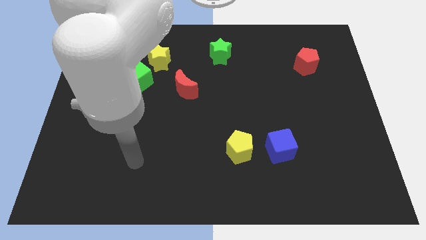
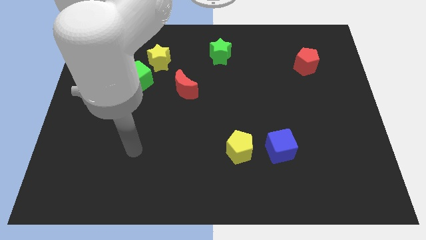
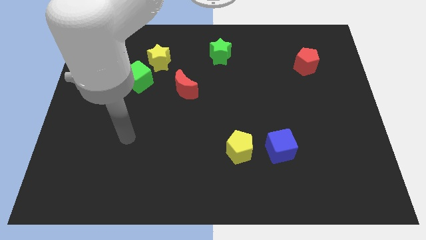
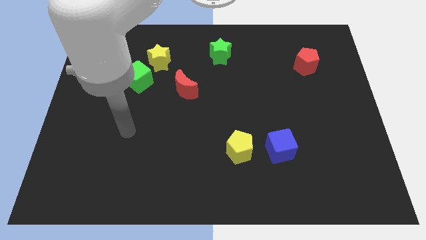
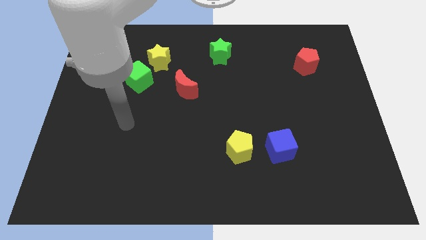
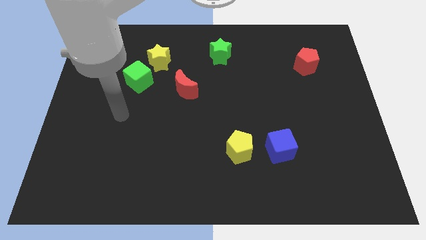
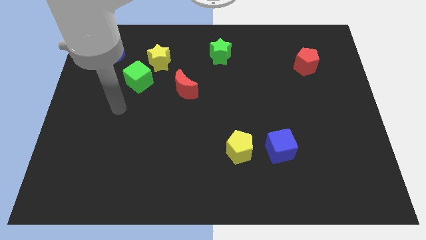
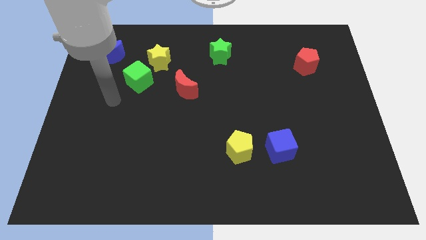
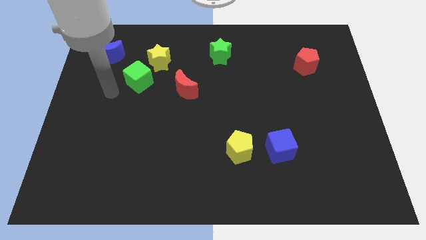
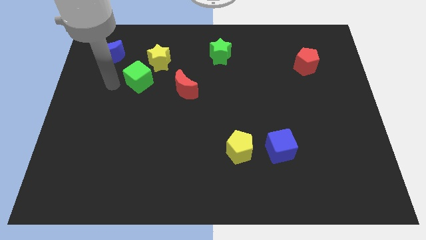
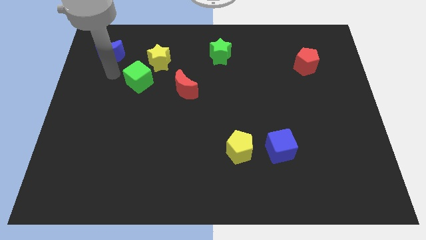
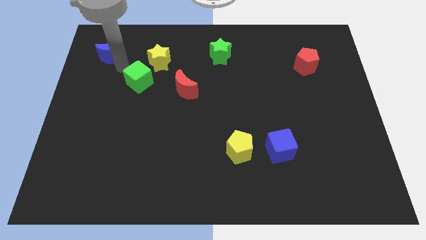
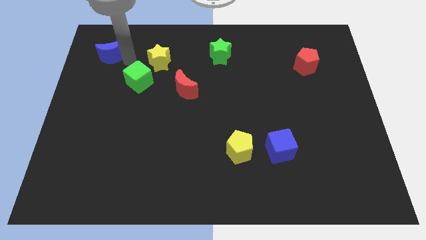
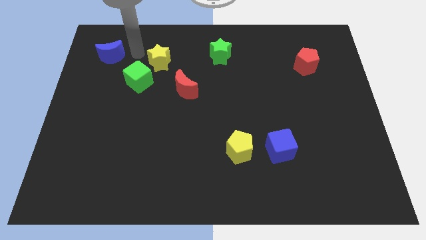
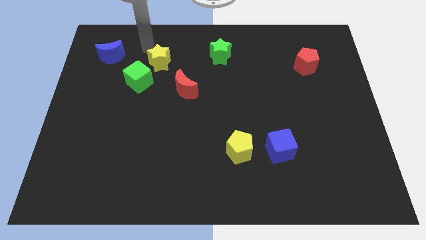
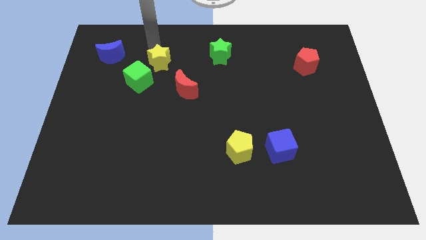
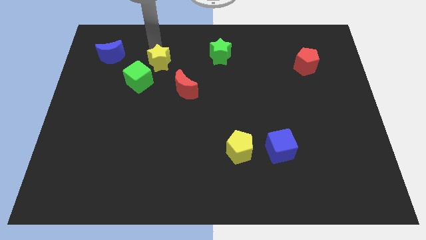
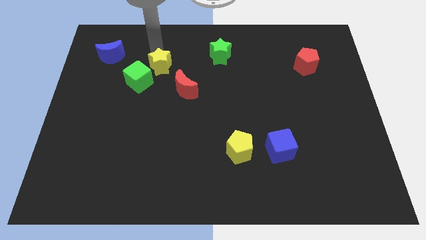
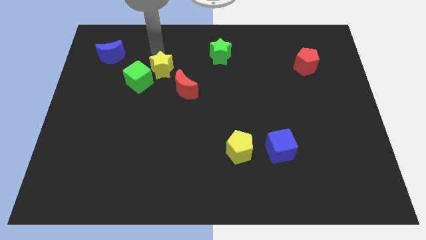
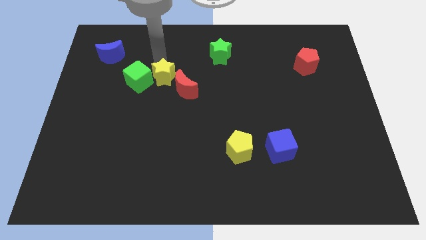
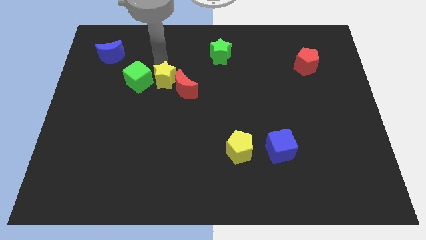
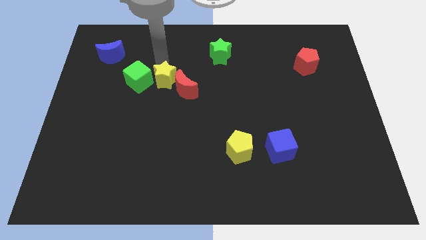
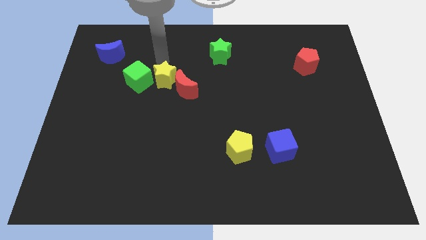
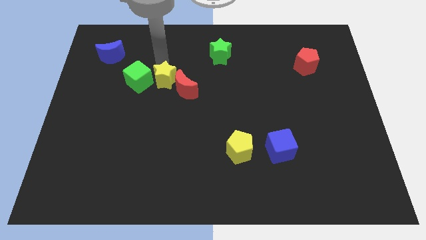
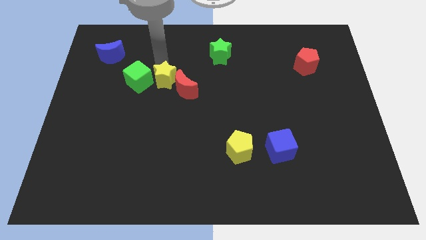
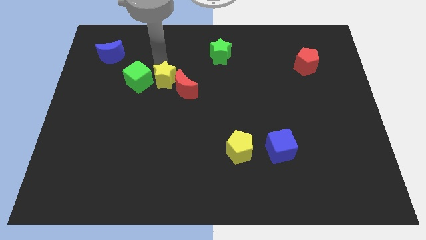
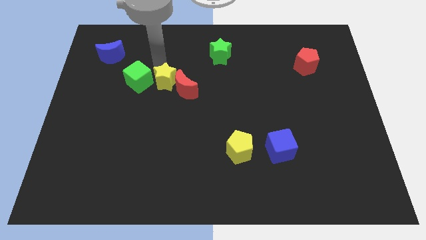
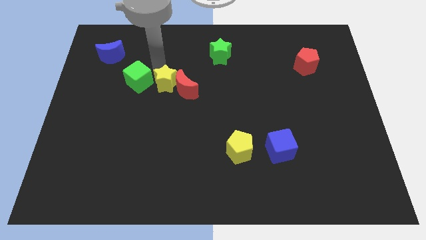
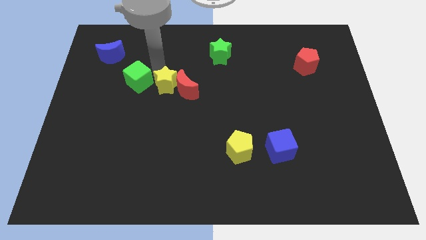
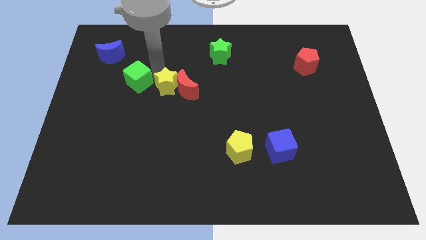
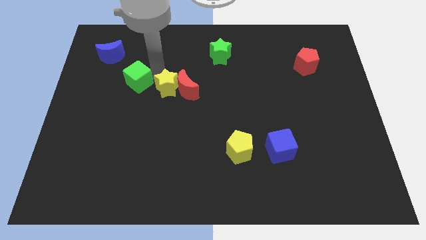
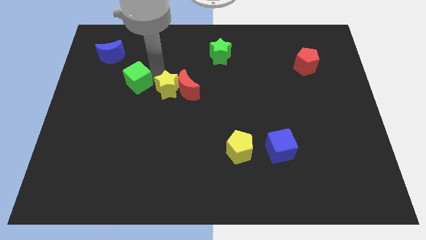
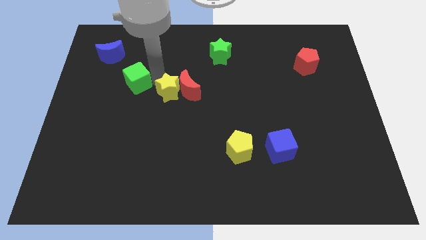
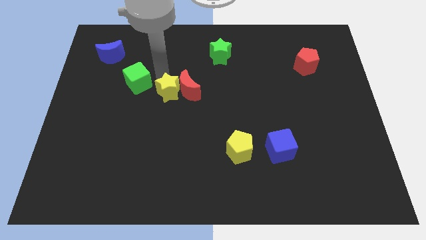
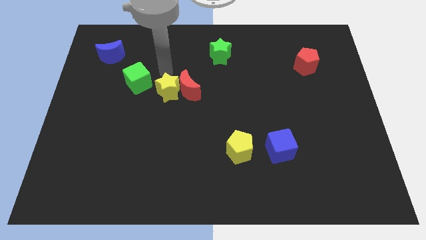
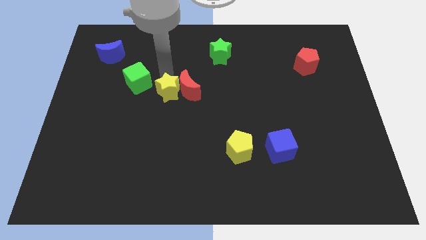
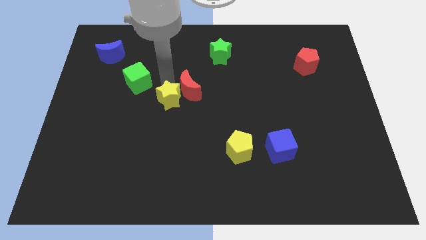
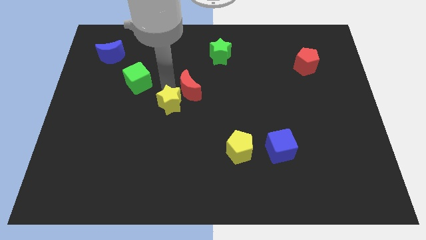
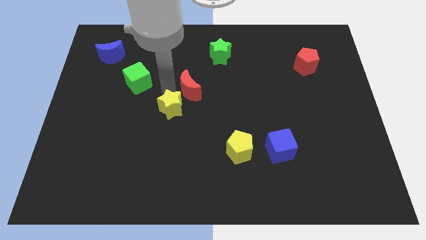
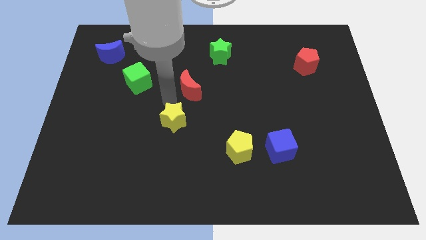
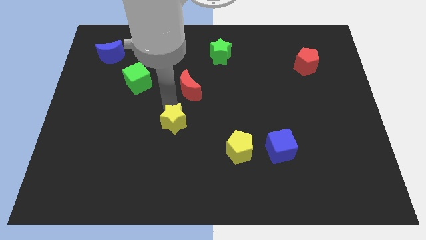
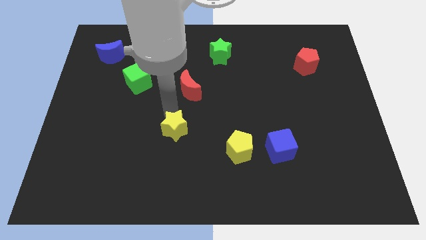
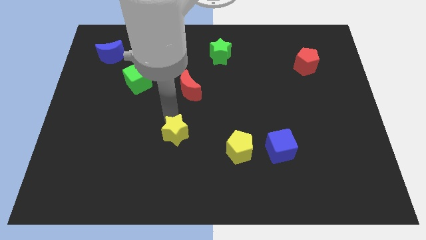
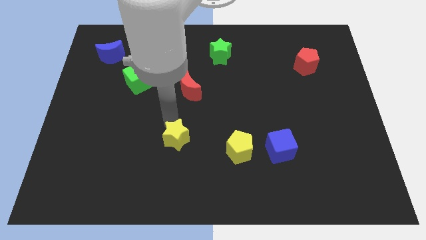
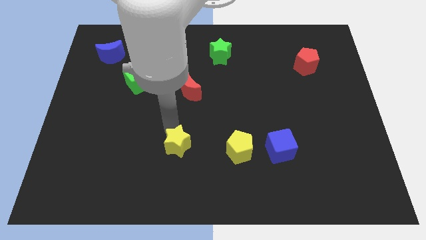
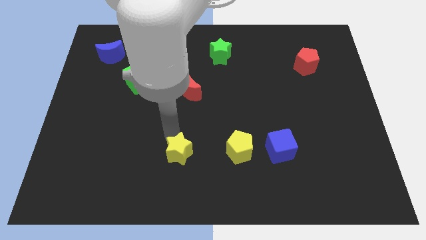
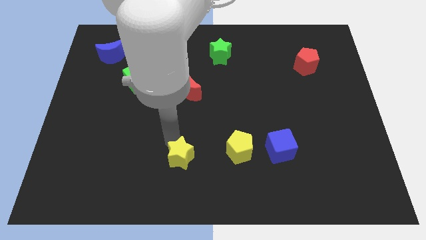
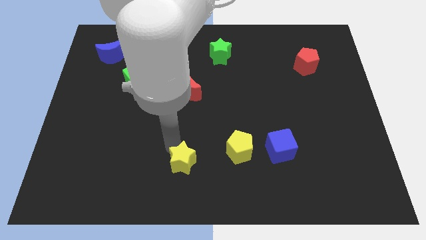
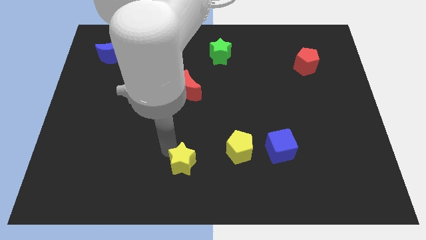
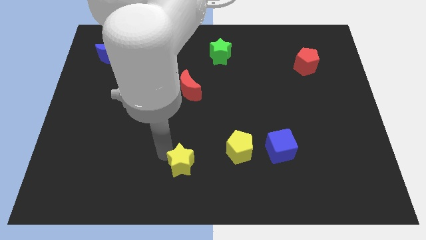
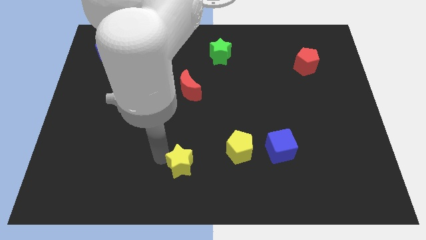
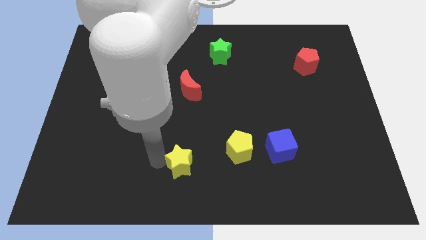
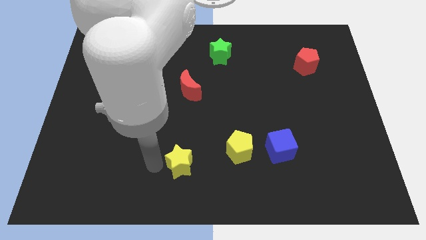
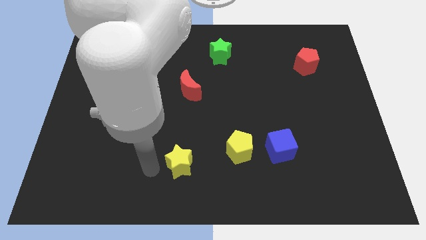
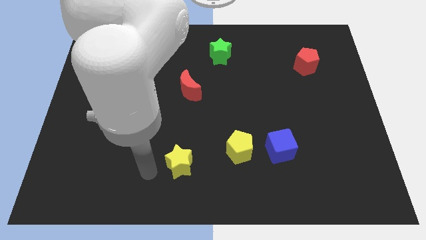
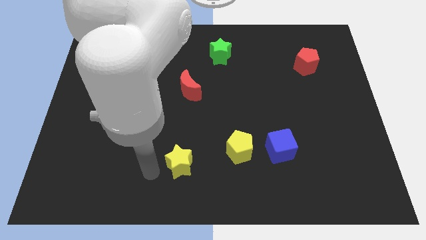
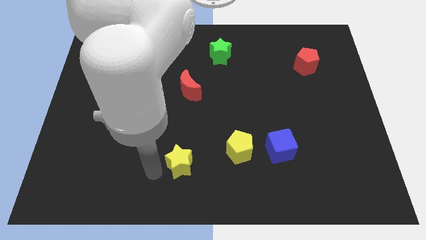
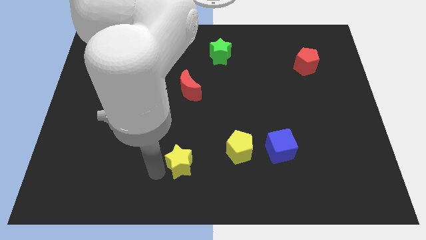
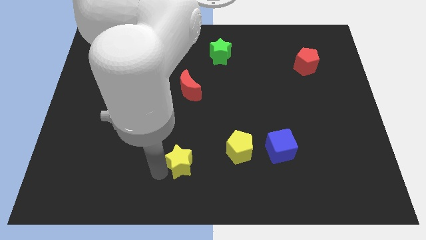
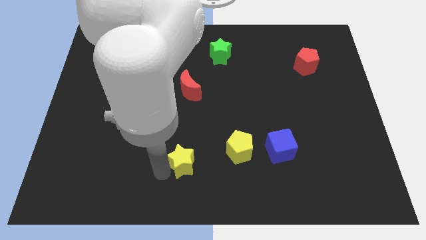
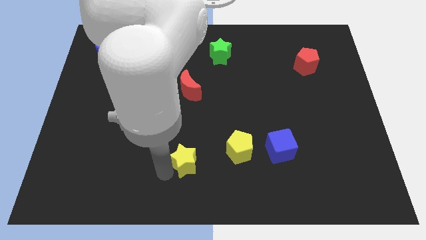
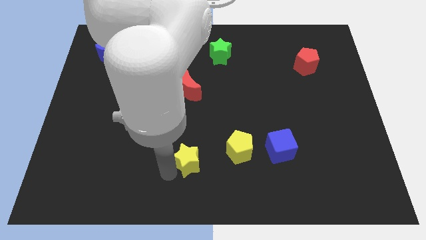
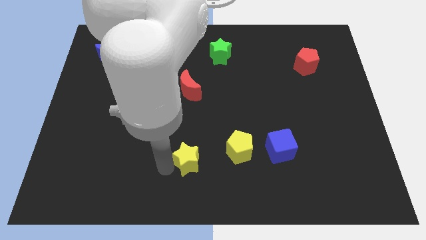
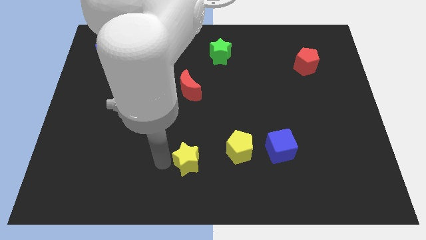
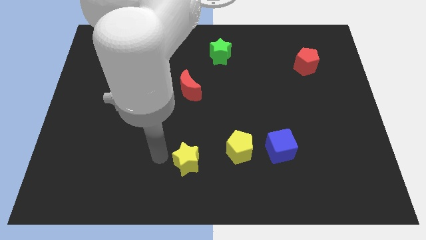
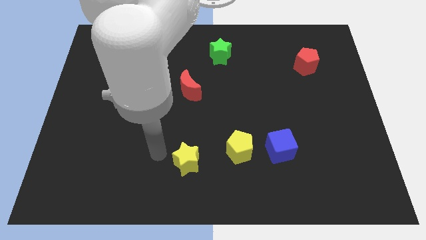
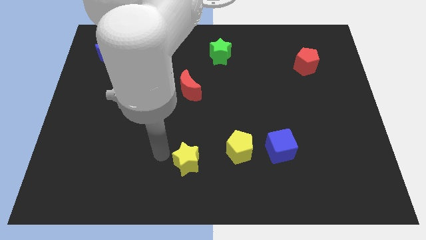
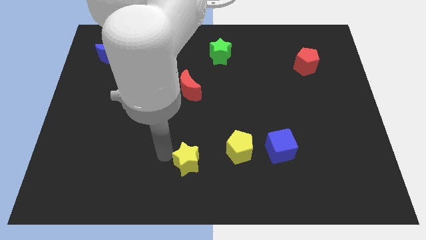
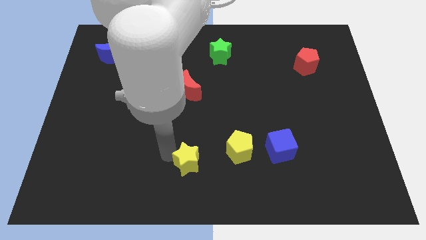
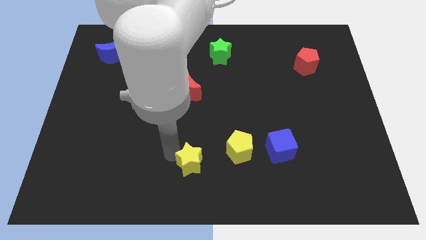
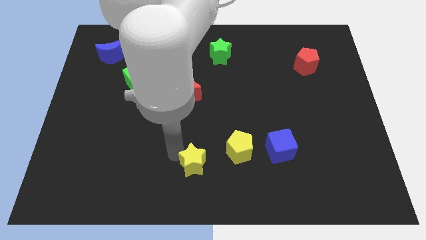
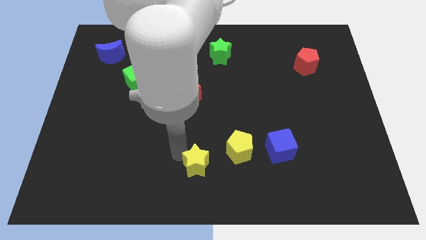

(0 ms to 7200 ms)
push the yellow star diagonally down and to the left of the yellow pentagon
